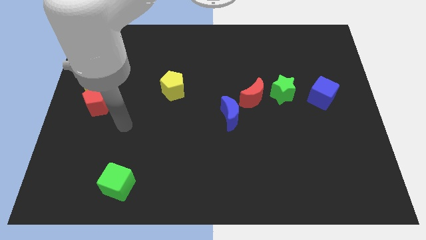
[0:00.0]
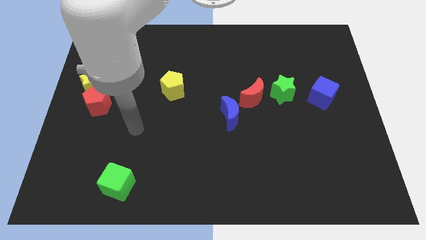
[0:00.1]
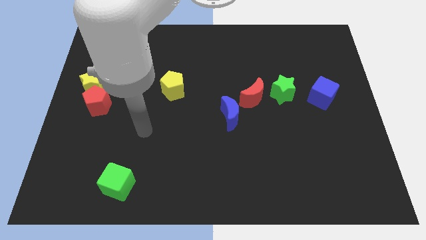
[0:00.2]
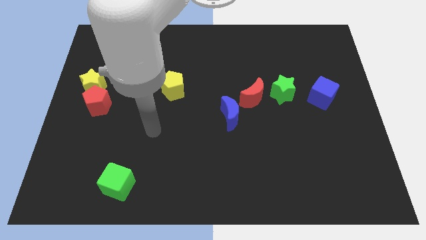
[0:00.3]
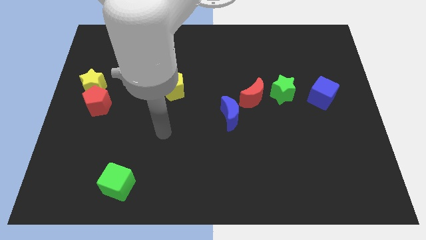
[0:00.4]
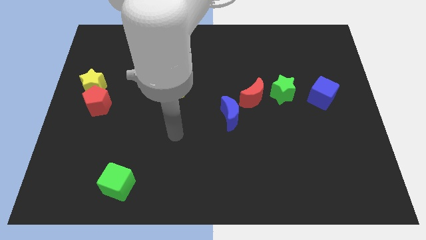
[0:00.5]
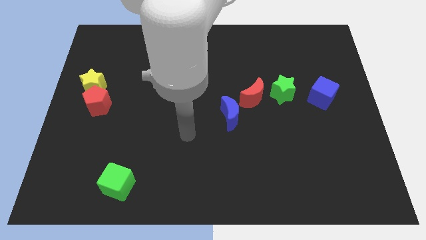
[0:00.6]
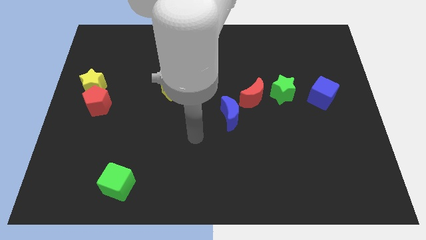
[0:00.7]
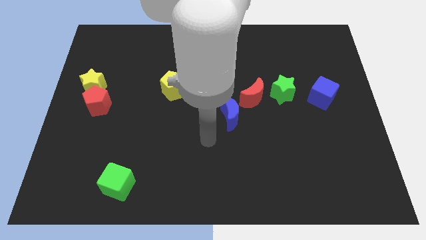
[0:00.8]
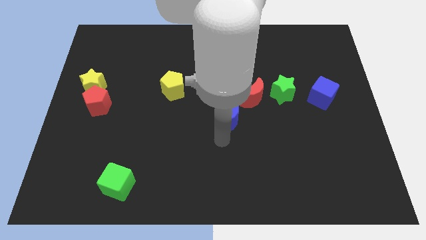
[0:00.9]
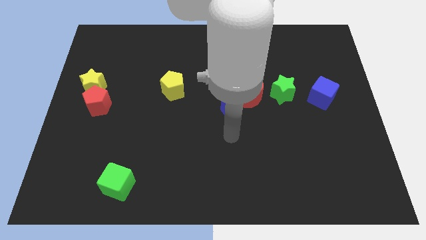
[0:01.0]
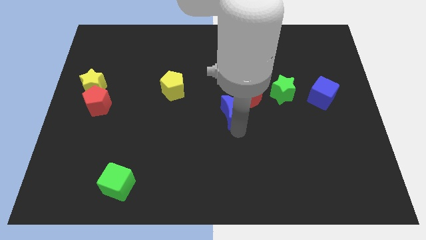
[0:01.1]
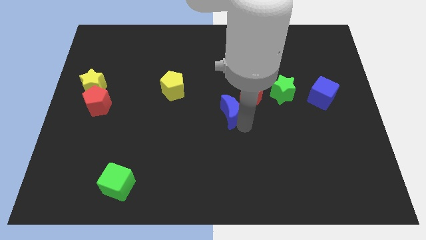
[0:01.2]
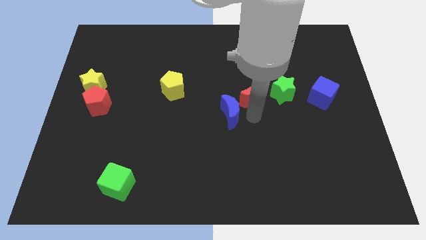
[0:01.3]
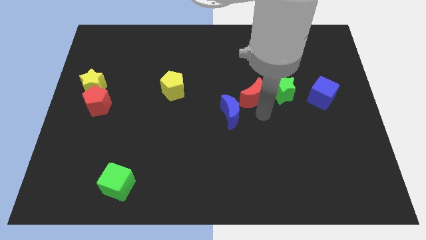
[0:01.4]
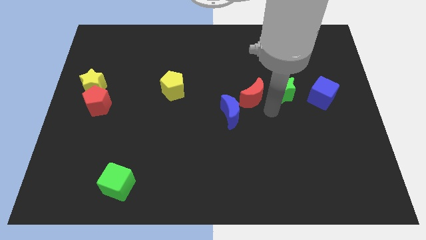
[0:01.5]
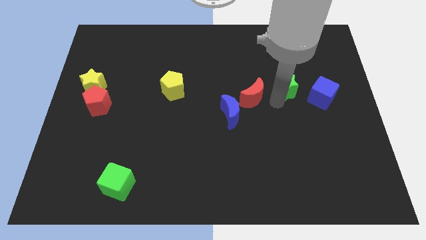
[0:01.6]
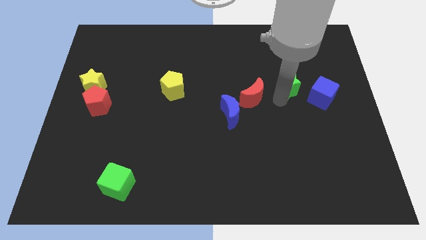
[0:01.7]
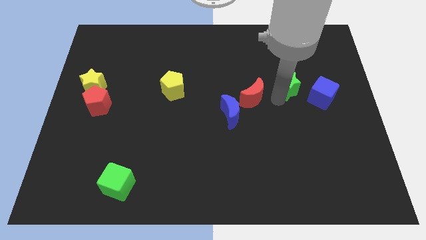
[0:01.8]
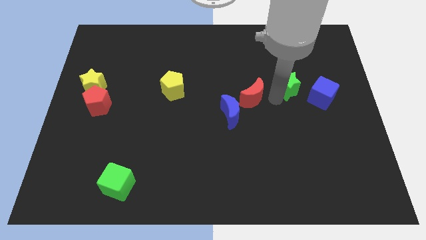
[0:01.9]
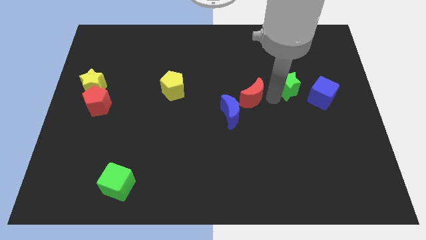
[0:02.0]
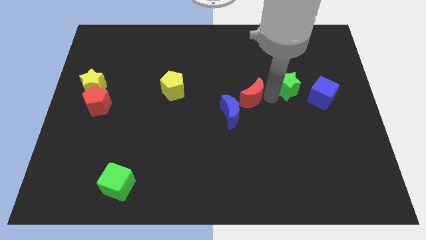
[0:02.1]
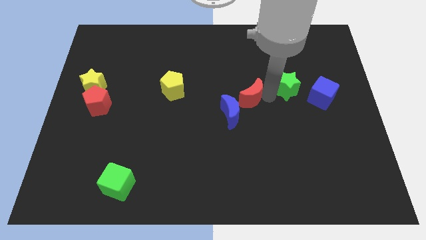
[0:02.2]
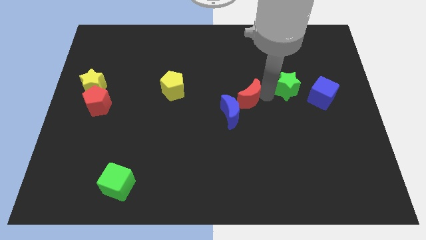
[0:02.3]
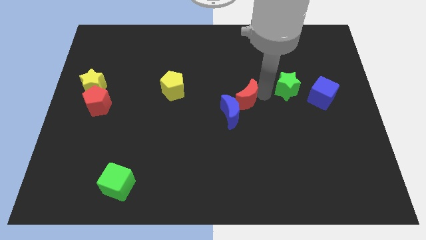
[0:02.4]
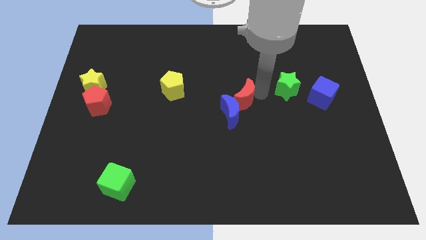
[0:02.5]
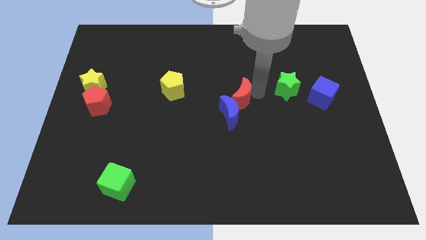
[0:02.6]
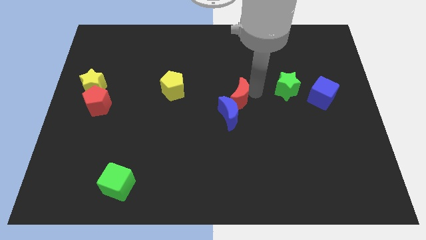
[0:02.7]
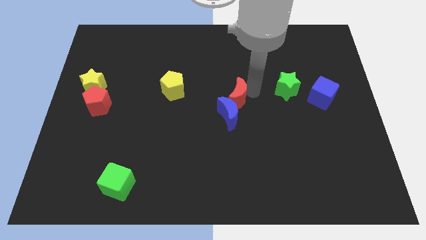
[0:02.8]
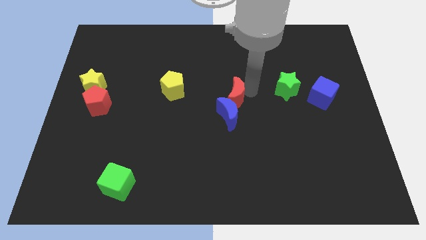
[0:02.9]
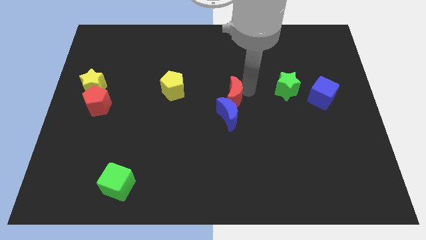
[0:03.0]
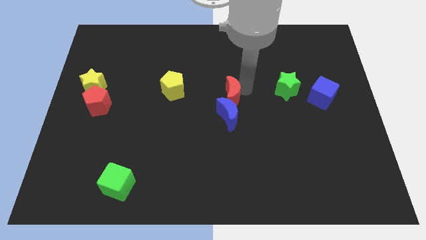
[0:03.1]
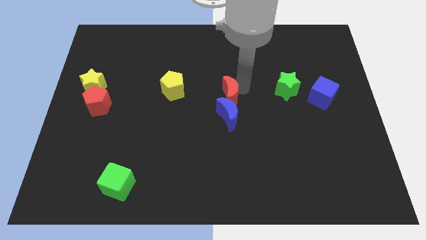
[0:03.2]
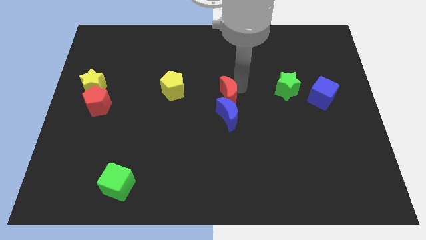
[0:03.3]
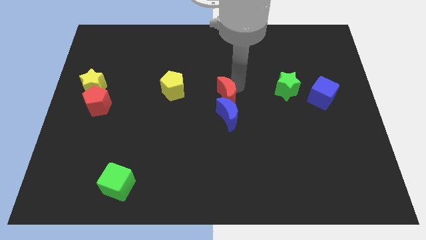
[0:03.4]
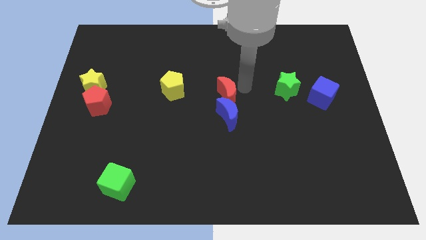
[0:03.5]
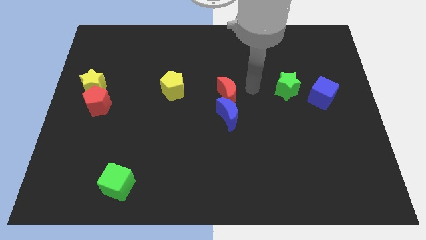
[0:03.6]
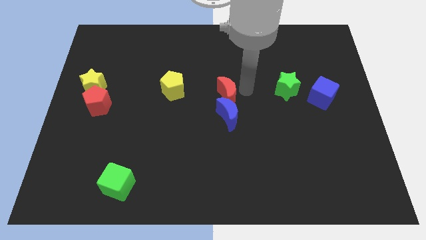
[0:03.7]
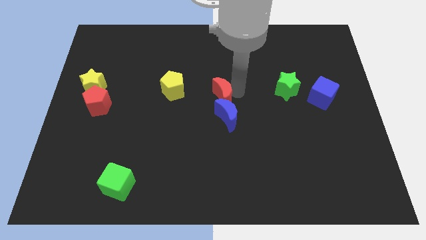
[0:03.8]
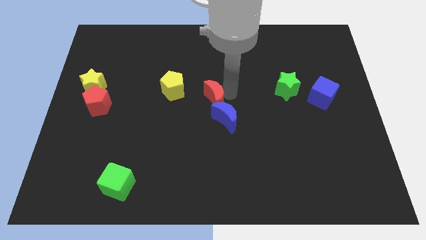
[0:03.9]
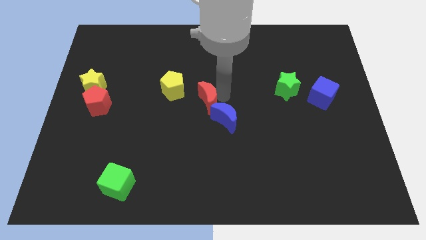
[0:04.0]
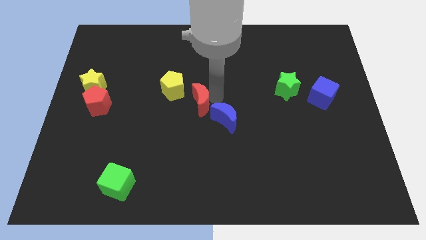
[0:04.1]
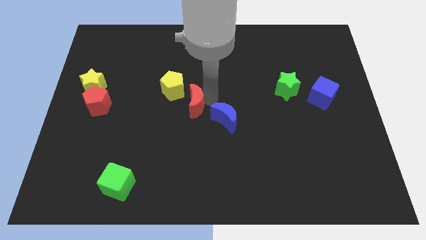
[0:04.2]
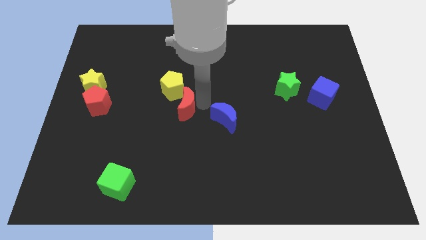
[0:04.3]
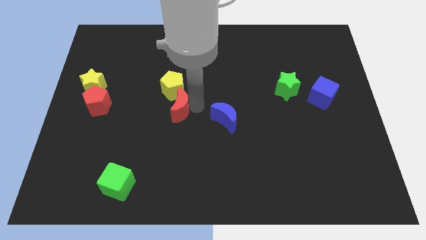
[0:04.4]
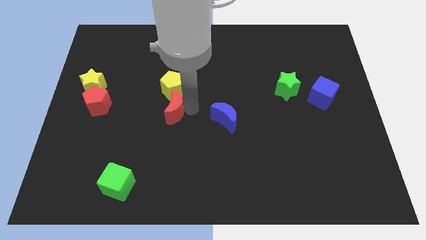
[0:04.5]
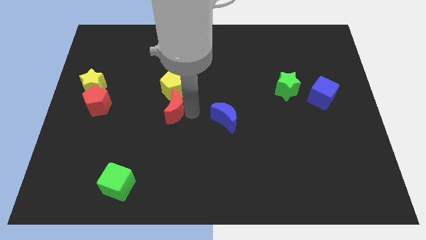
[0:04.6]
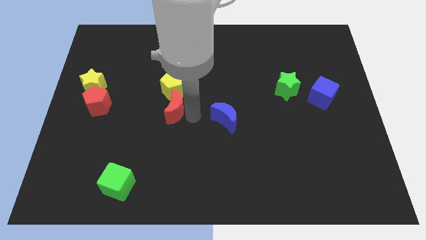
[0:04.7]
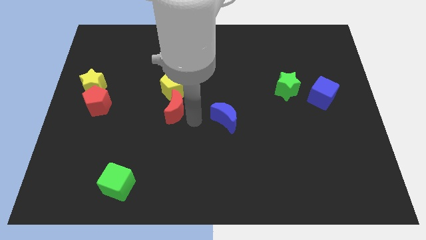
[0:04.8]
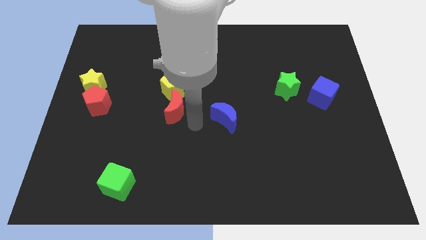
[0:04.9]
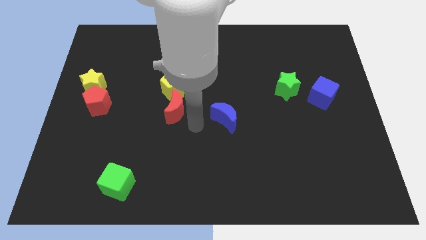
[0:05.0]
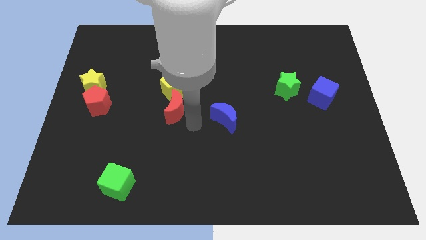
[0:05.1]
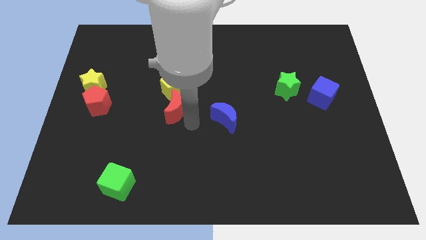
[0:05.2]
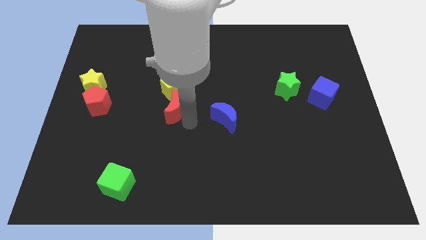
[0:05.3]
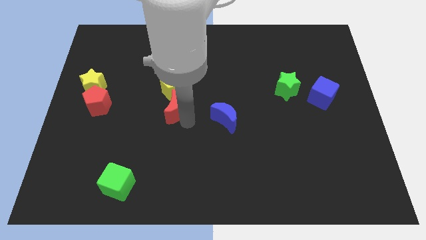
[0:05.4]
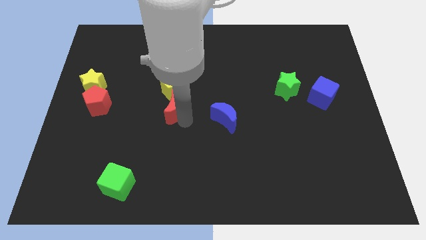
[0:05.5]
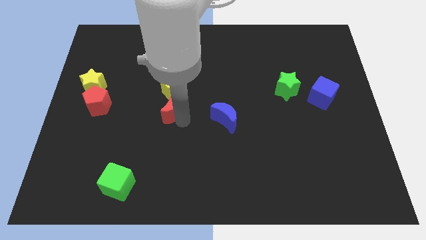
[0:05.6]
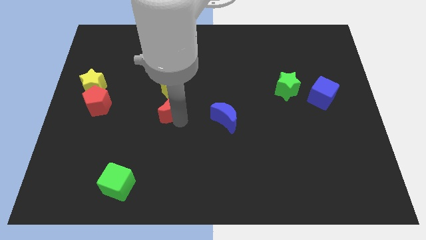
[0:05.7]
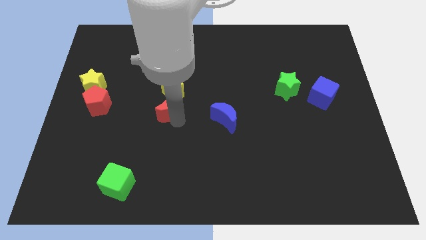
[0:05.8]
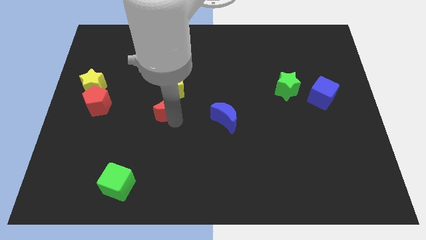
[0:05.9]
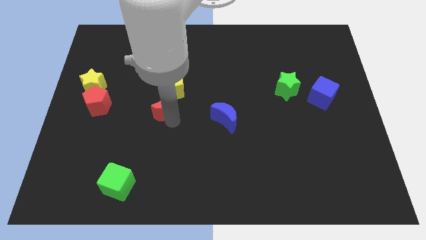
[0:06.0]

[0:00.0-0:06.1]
move the red moon to the left

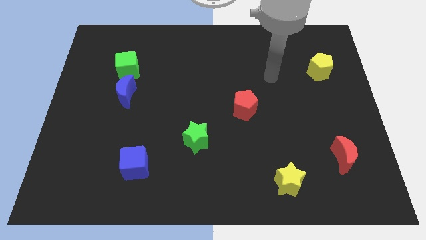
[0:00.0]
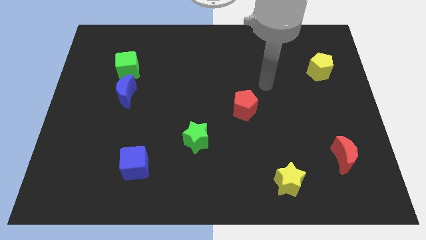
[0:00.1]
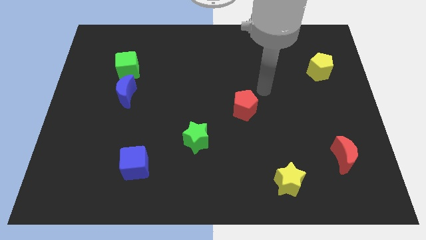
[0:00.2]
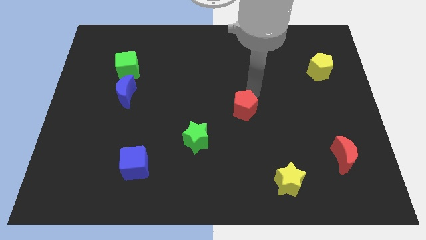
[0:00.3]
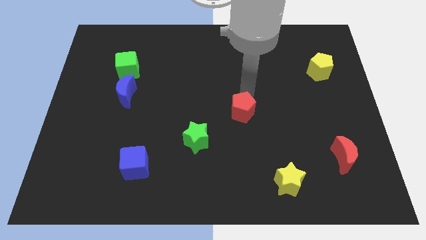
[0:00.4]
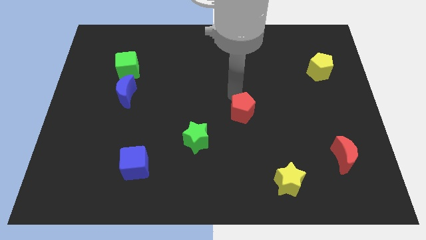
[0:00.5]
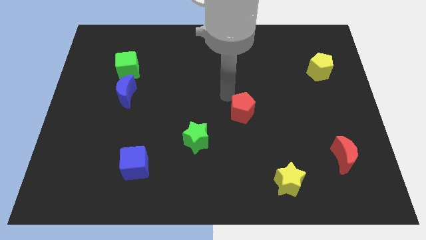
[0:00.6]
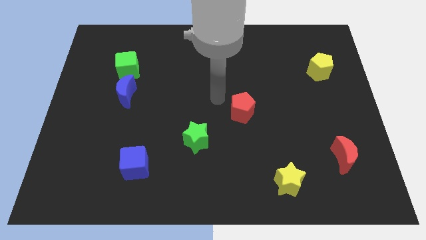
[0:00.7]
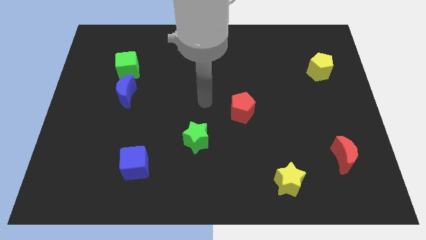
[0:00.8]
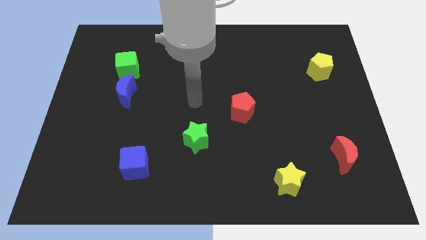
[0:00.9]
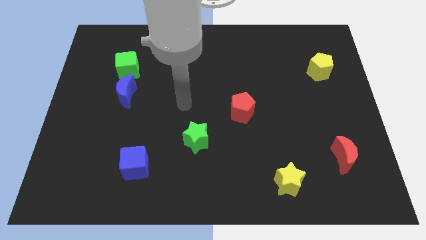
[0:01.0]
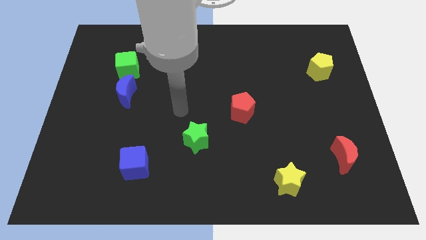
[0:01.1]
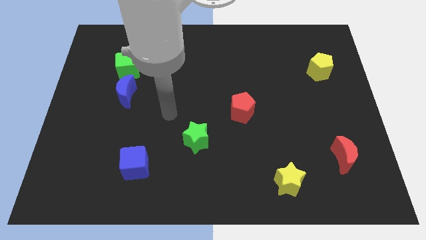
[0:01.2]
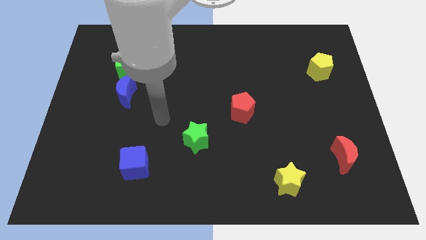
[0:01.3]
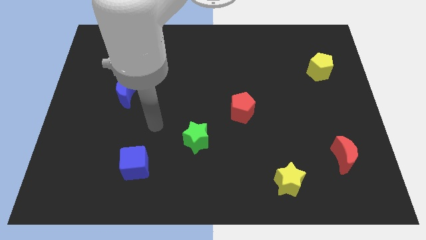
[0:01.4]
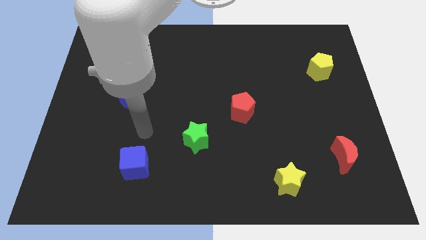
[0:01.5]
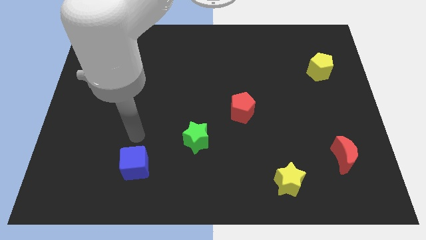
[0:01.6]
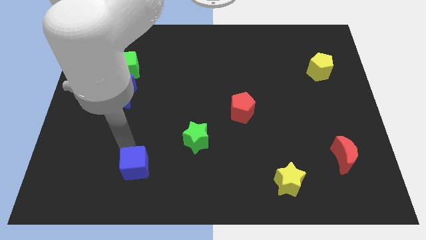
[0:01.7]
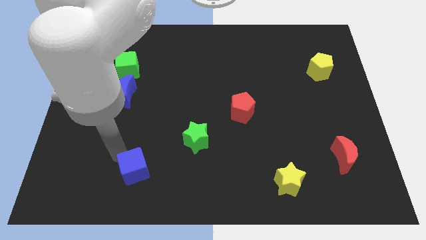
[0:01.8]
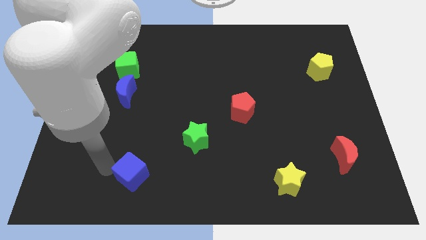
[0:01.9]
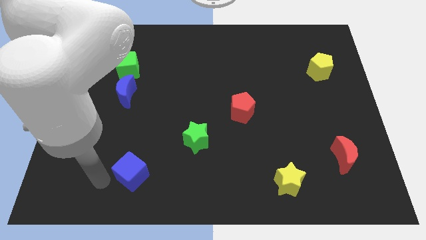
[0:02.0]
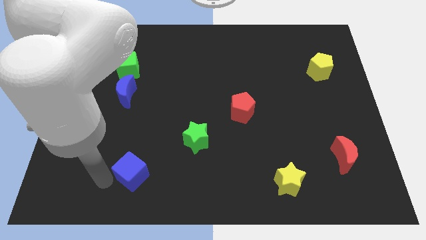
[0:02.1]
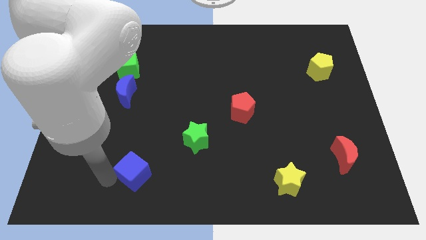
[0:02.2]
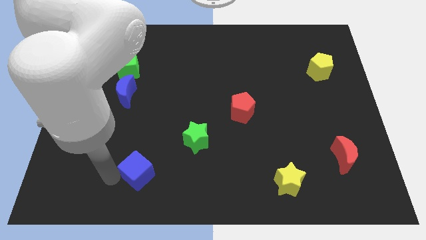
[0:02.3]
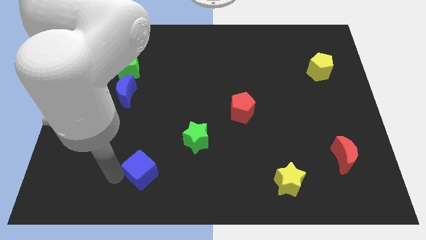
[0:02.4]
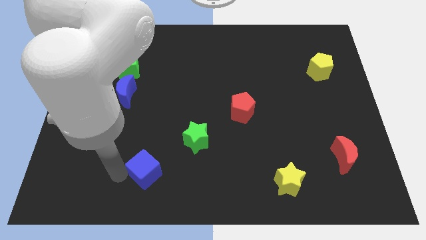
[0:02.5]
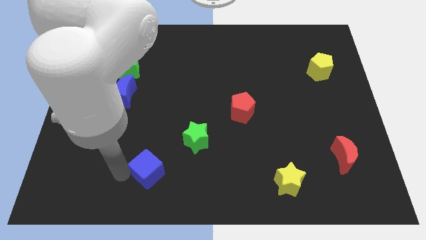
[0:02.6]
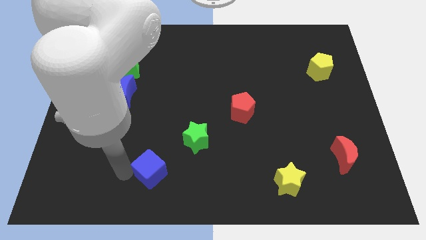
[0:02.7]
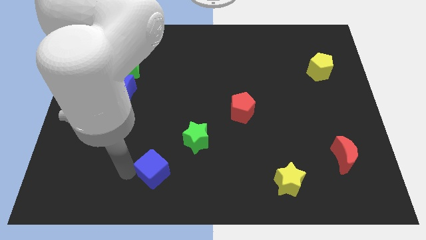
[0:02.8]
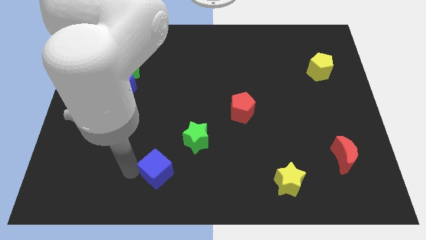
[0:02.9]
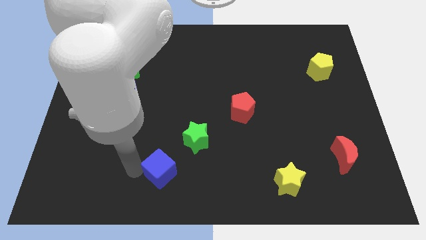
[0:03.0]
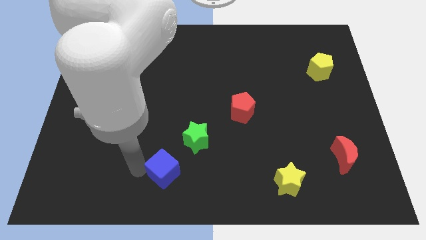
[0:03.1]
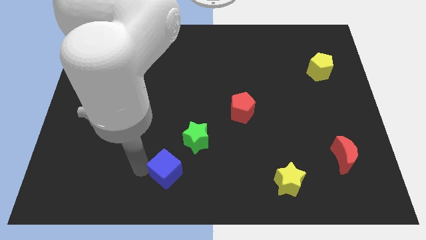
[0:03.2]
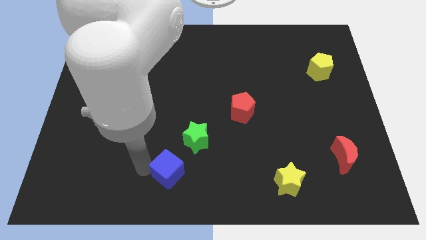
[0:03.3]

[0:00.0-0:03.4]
push the blue cube to the right slightly
